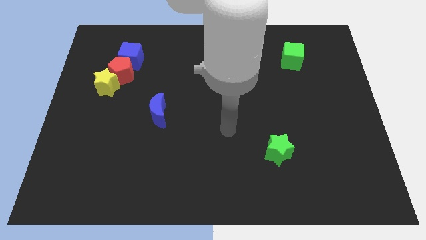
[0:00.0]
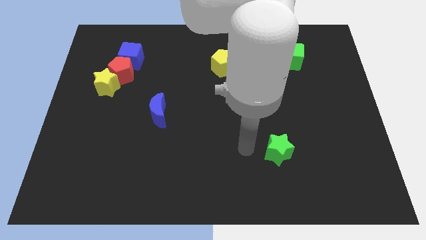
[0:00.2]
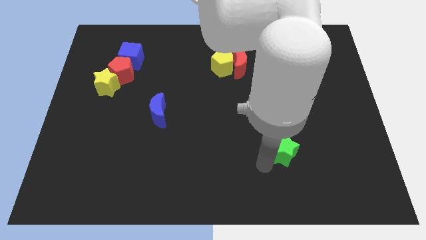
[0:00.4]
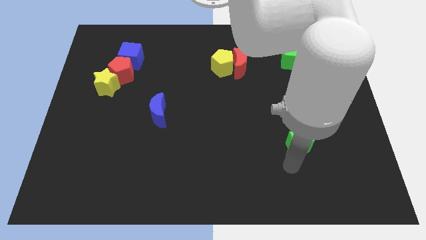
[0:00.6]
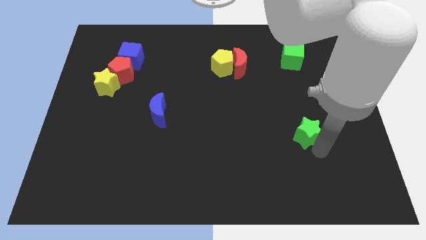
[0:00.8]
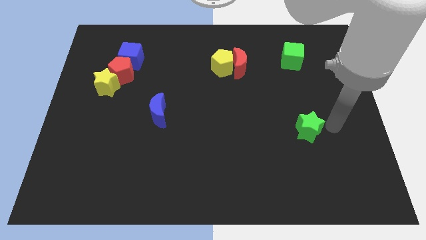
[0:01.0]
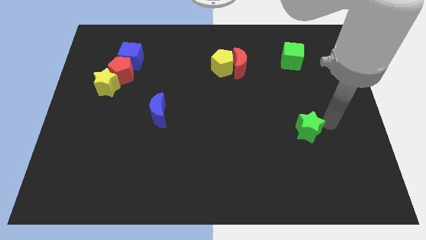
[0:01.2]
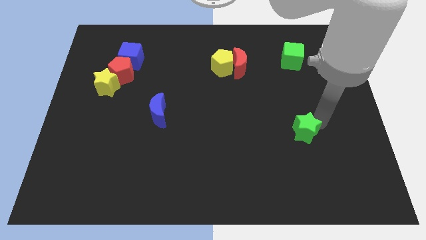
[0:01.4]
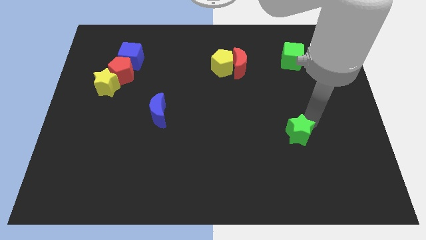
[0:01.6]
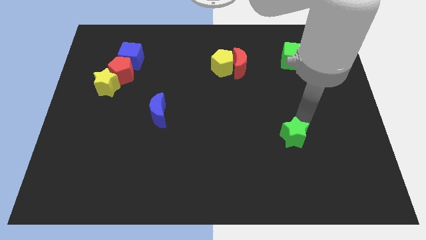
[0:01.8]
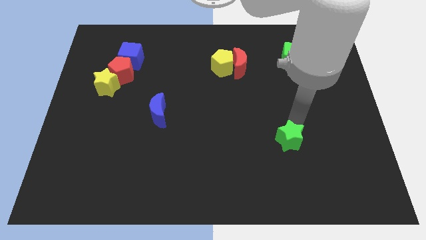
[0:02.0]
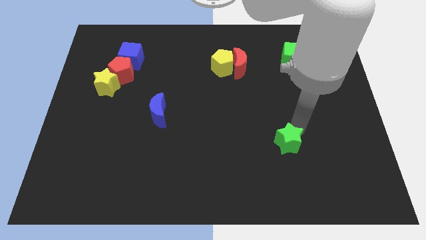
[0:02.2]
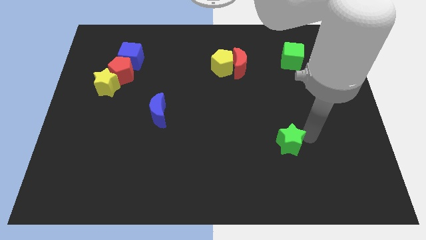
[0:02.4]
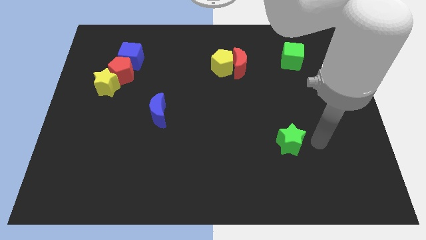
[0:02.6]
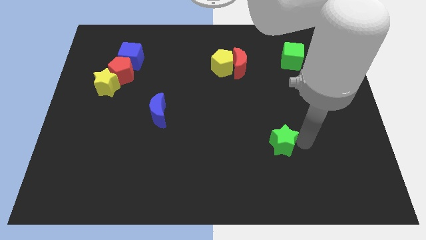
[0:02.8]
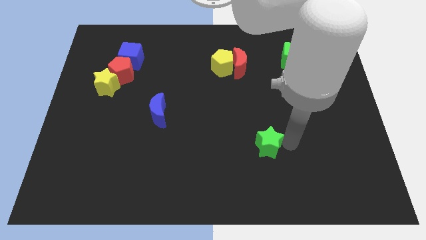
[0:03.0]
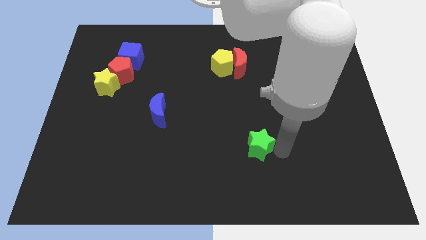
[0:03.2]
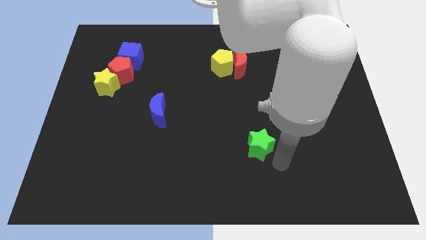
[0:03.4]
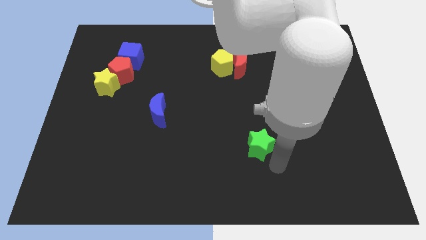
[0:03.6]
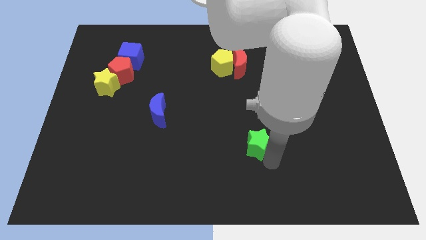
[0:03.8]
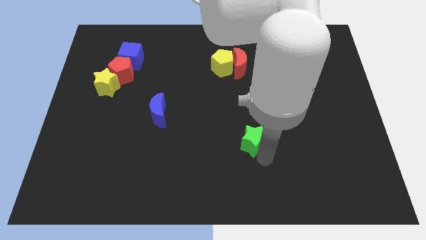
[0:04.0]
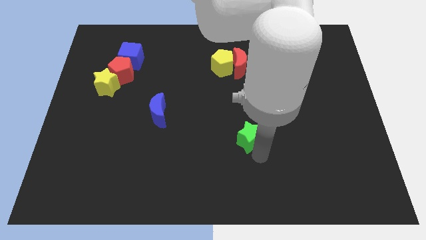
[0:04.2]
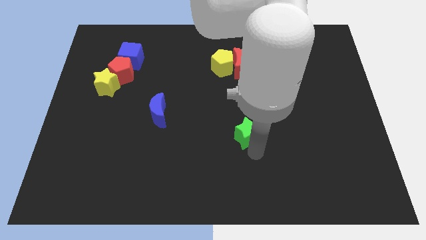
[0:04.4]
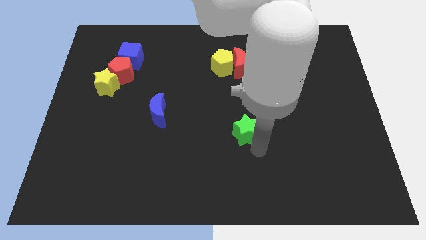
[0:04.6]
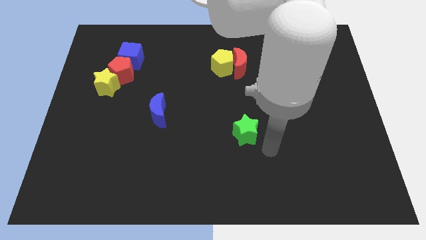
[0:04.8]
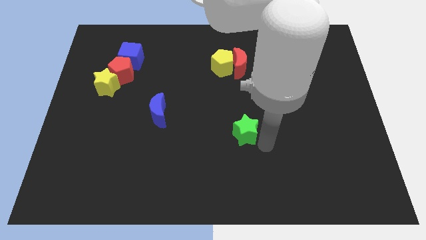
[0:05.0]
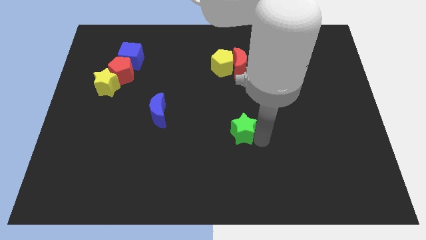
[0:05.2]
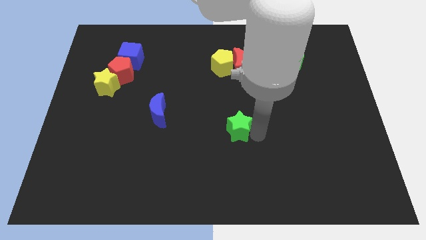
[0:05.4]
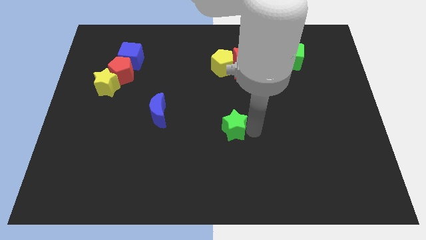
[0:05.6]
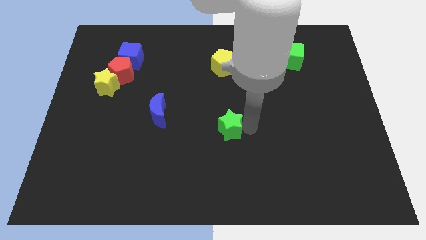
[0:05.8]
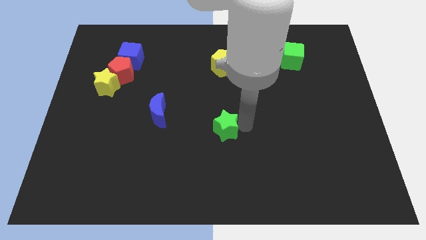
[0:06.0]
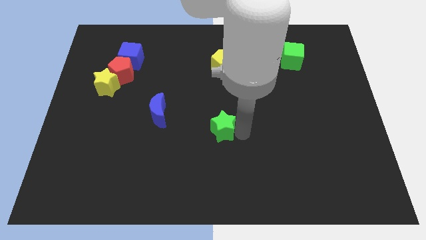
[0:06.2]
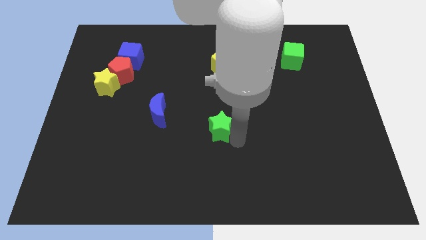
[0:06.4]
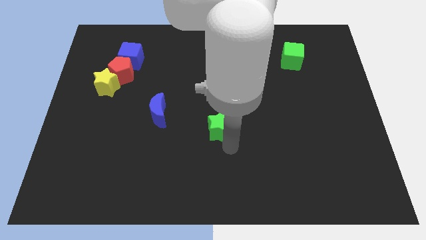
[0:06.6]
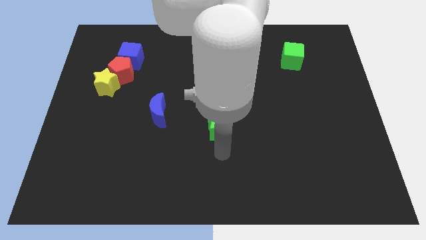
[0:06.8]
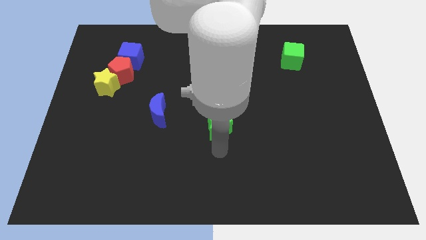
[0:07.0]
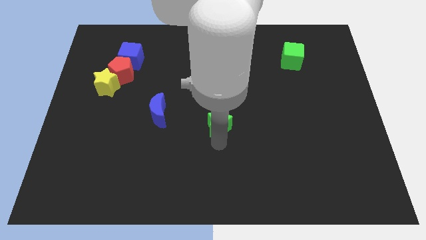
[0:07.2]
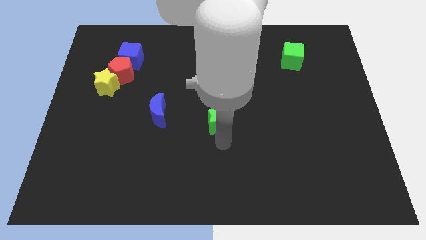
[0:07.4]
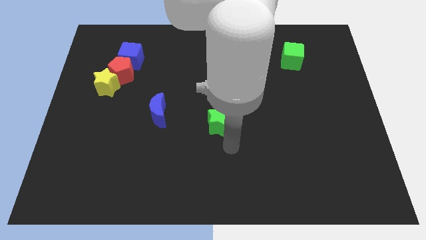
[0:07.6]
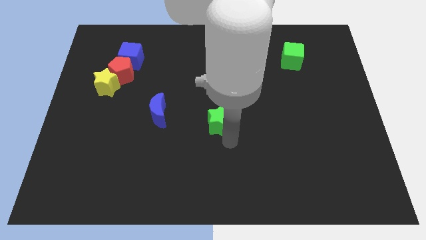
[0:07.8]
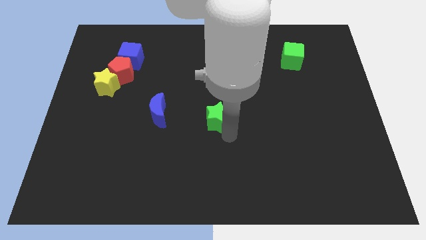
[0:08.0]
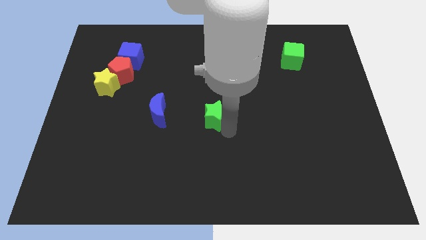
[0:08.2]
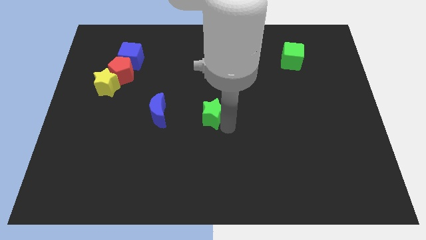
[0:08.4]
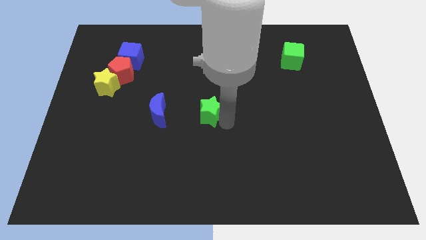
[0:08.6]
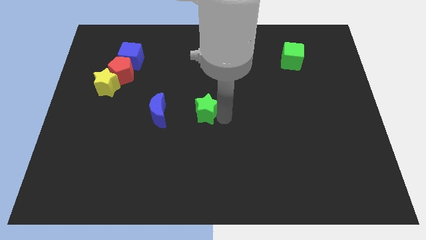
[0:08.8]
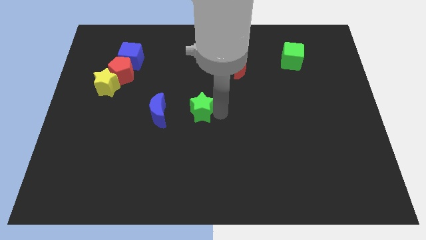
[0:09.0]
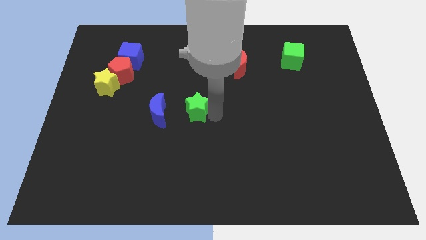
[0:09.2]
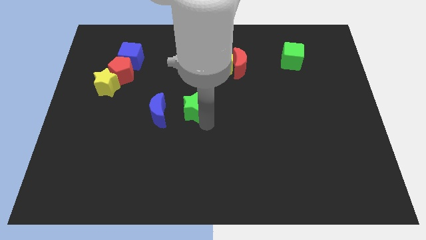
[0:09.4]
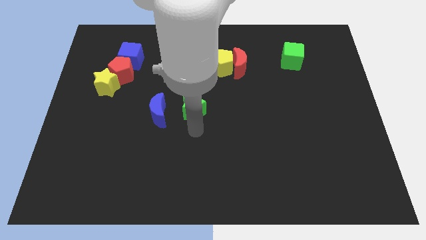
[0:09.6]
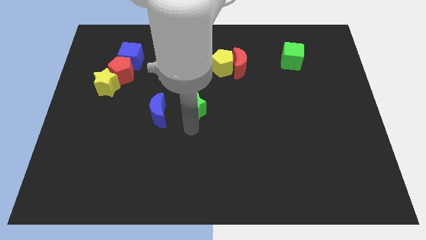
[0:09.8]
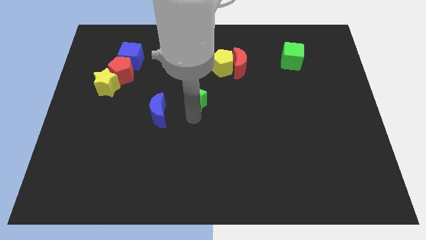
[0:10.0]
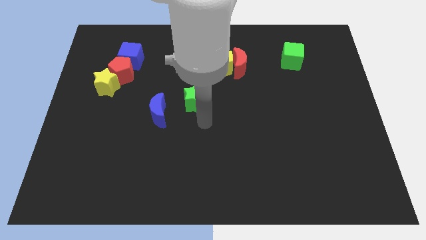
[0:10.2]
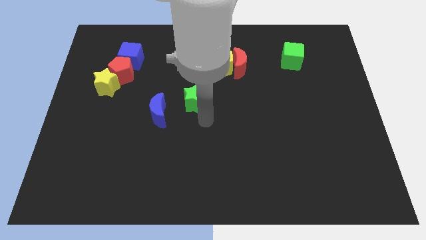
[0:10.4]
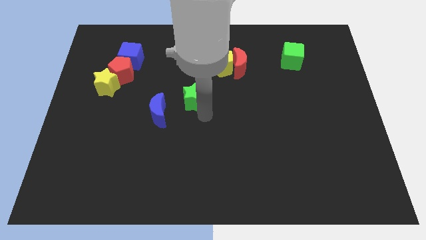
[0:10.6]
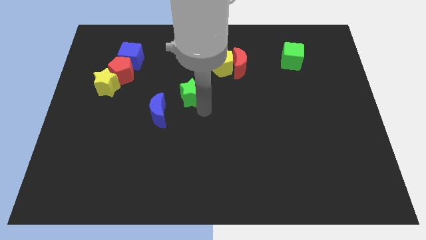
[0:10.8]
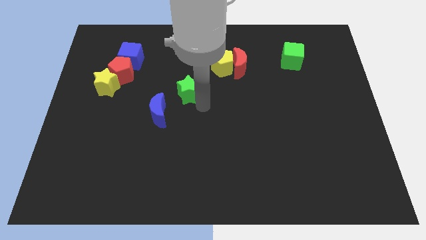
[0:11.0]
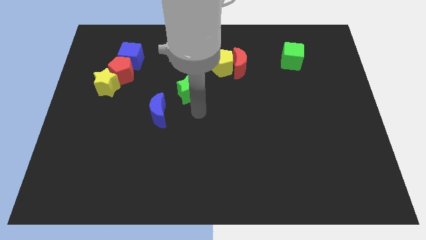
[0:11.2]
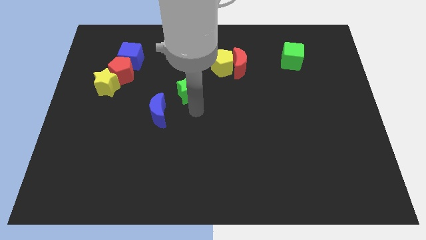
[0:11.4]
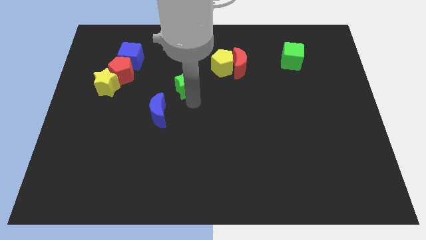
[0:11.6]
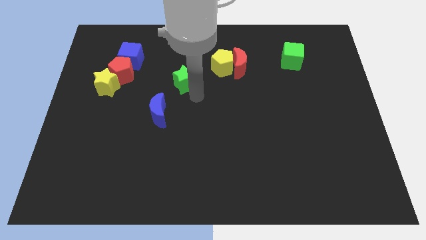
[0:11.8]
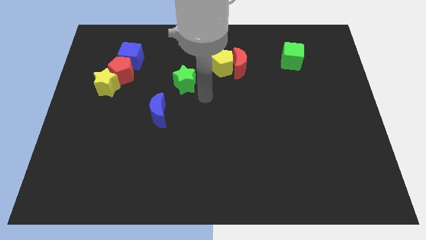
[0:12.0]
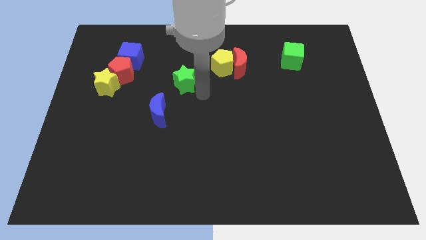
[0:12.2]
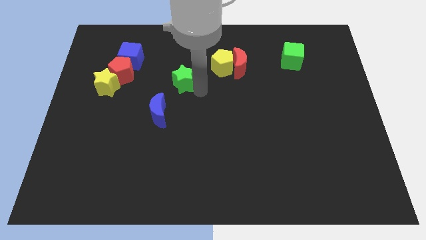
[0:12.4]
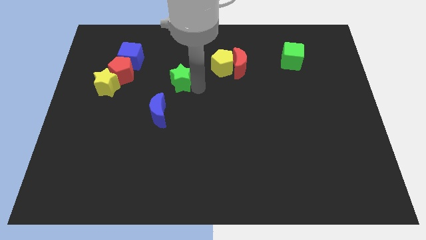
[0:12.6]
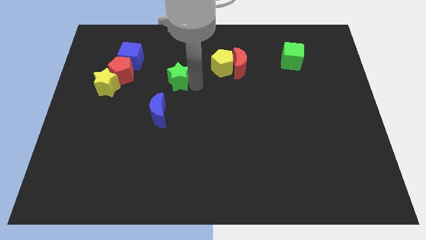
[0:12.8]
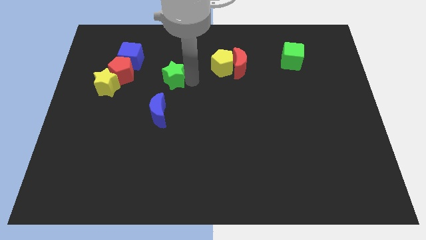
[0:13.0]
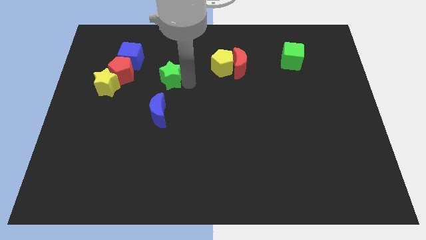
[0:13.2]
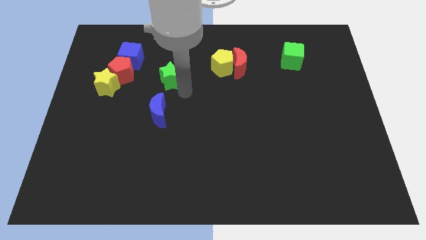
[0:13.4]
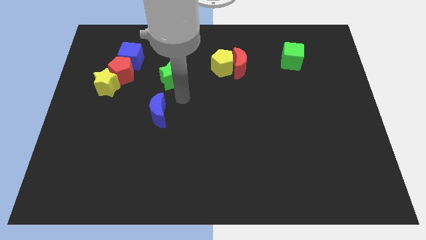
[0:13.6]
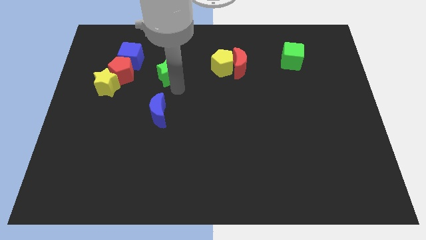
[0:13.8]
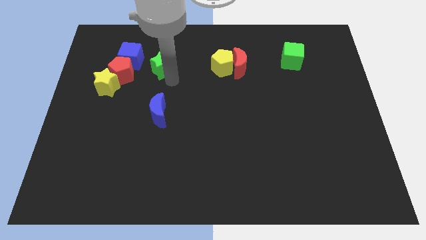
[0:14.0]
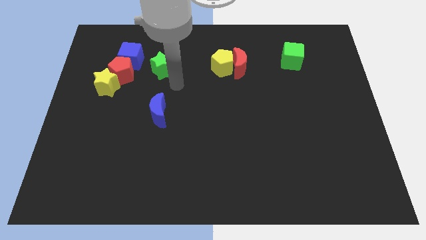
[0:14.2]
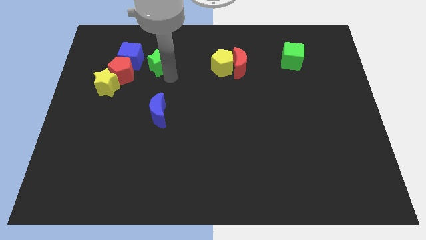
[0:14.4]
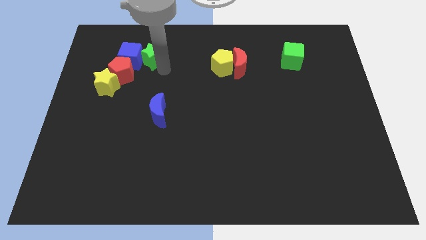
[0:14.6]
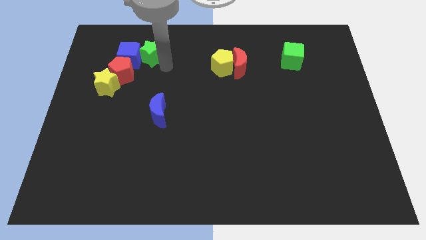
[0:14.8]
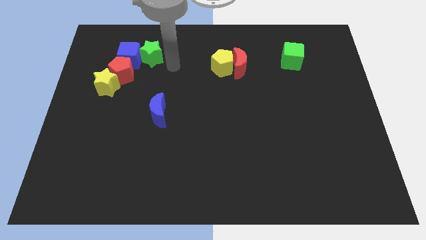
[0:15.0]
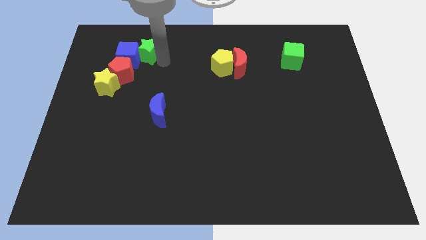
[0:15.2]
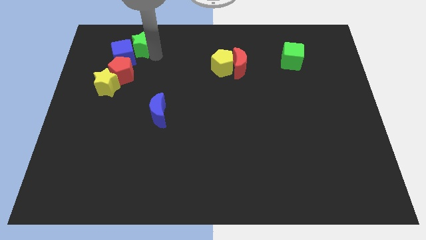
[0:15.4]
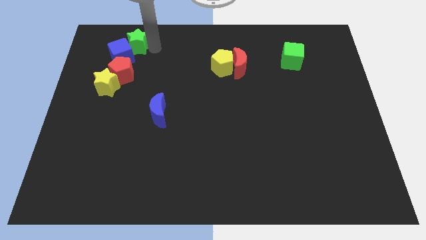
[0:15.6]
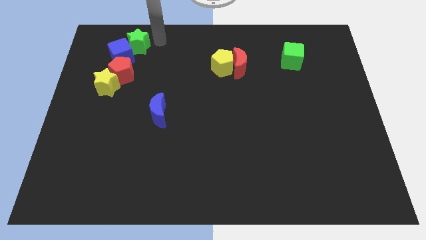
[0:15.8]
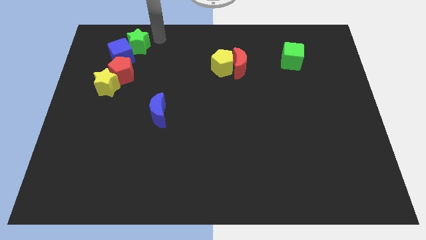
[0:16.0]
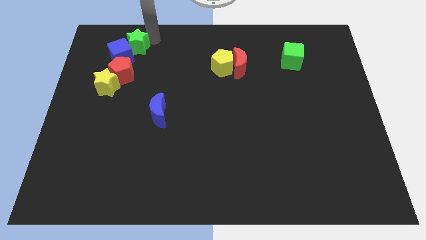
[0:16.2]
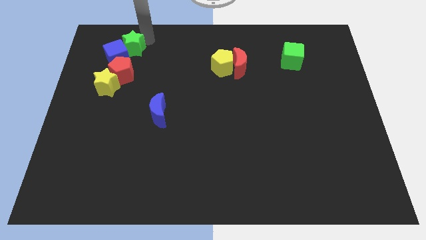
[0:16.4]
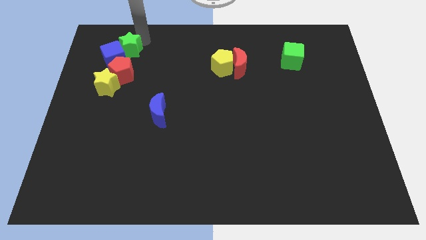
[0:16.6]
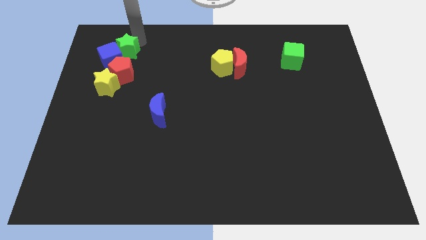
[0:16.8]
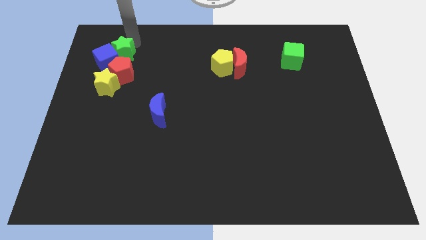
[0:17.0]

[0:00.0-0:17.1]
put the green star to the top left side of the red pentagon
